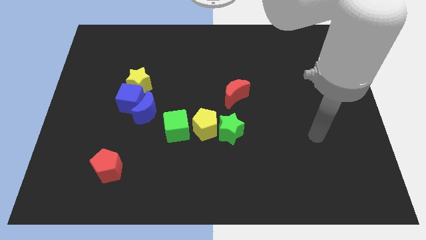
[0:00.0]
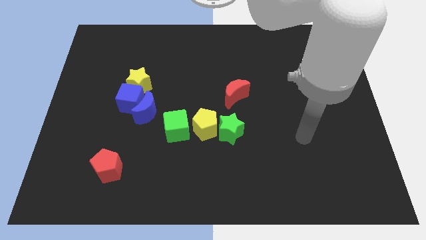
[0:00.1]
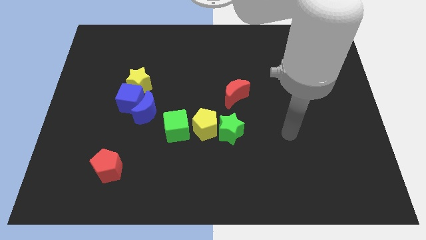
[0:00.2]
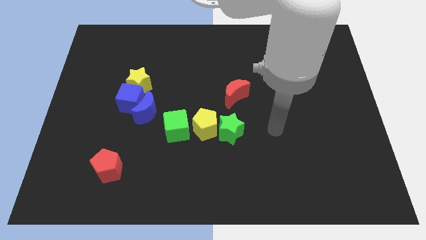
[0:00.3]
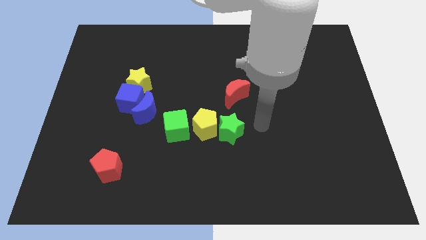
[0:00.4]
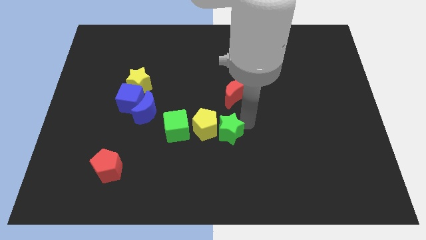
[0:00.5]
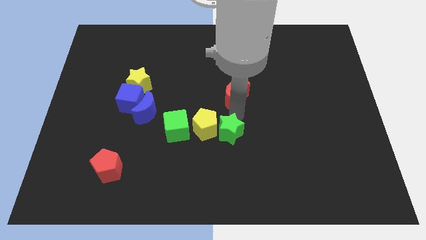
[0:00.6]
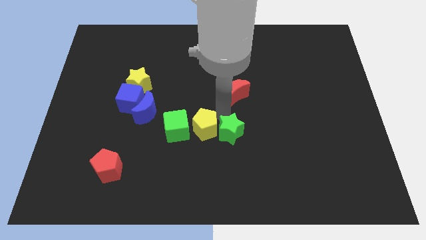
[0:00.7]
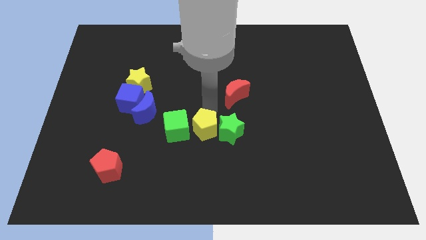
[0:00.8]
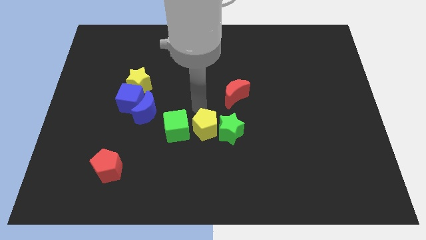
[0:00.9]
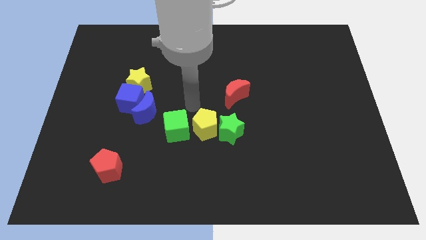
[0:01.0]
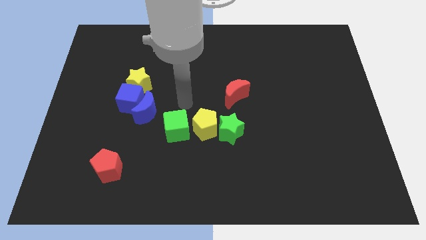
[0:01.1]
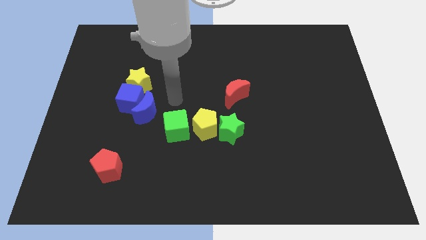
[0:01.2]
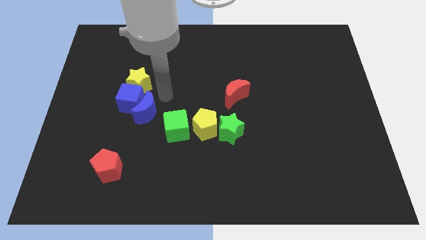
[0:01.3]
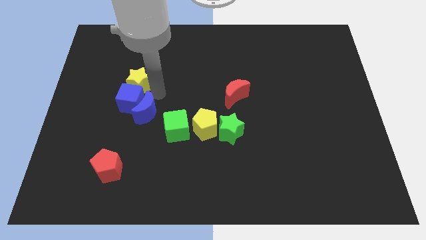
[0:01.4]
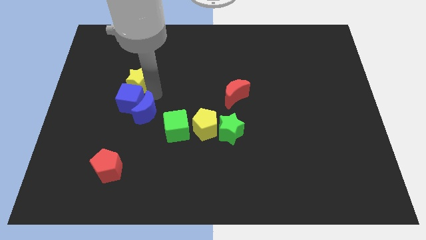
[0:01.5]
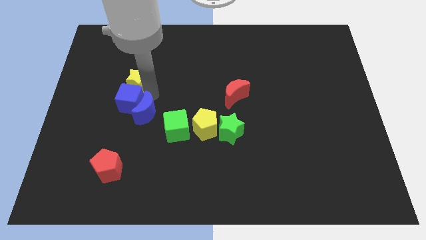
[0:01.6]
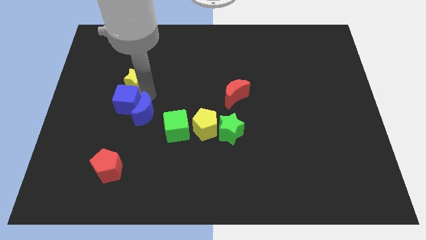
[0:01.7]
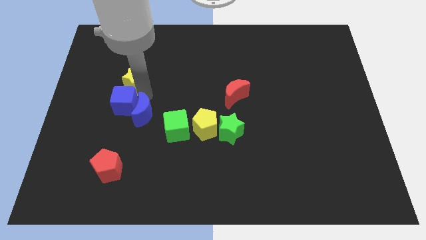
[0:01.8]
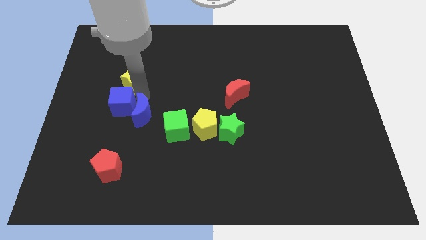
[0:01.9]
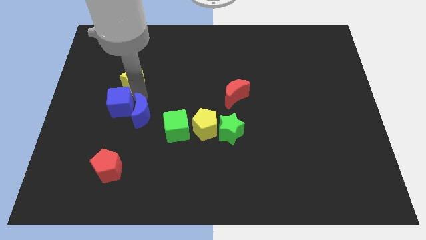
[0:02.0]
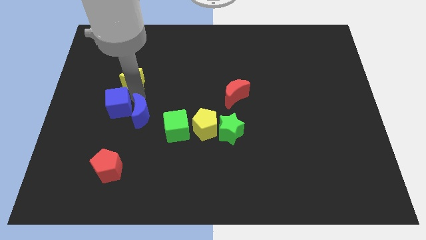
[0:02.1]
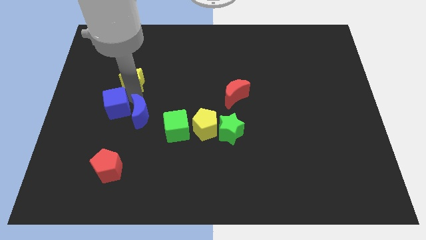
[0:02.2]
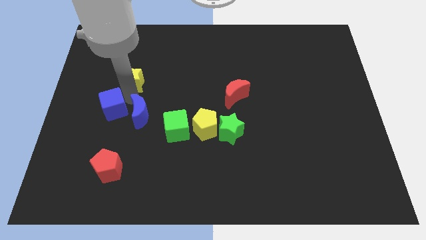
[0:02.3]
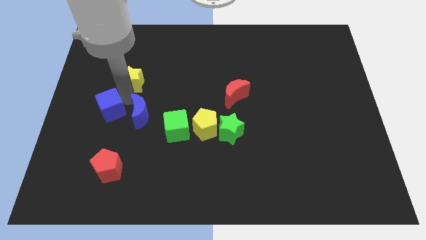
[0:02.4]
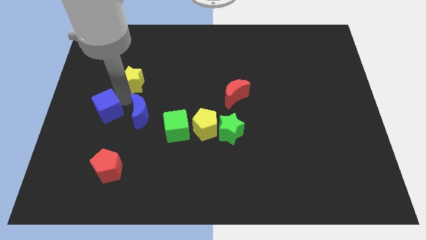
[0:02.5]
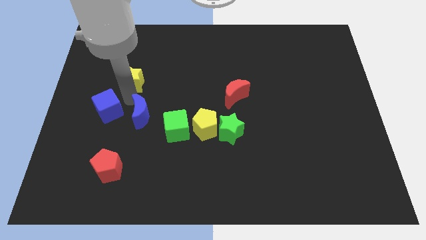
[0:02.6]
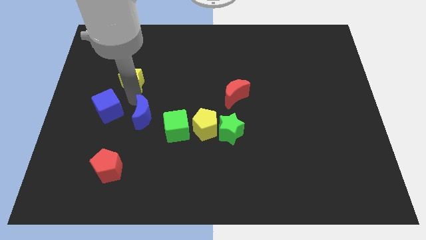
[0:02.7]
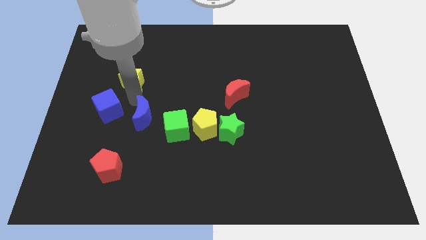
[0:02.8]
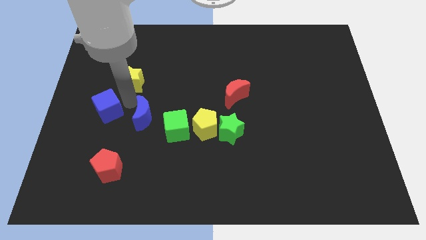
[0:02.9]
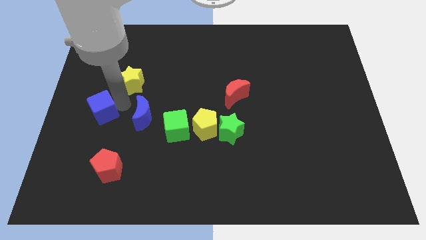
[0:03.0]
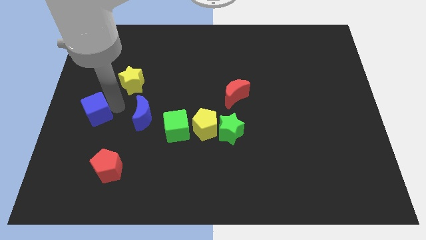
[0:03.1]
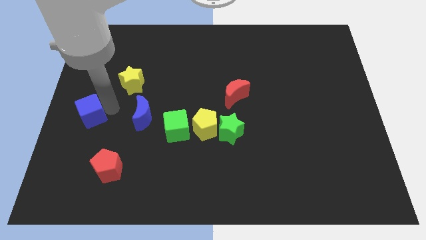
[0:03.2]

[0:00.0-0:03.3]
separate the blue cube from the blue moon and yellow star

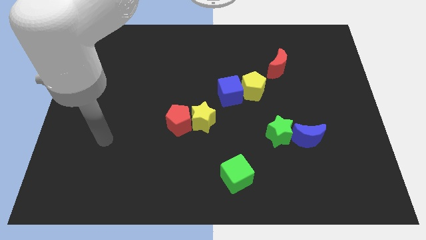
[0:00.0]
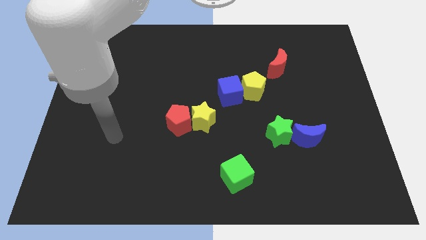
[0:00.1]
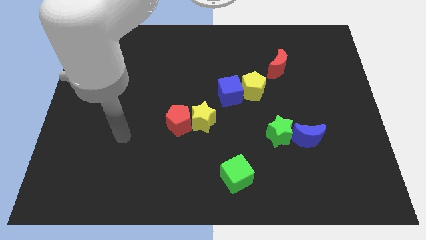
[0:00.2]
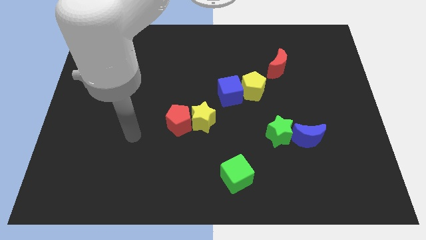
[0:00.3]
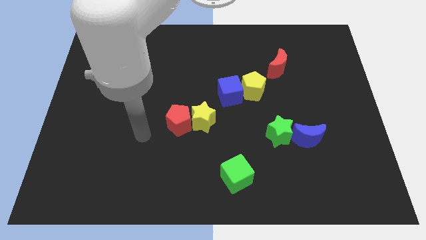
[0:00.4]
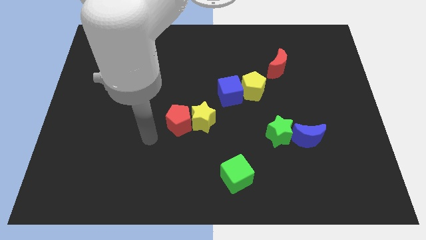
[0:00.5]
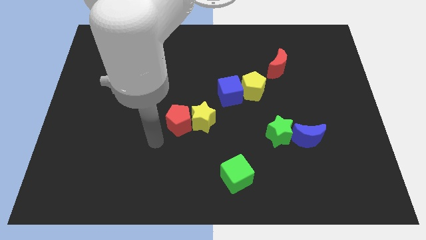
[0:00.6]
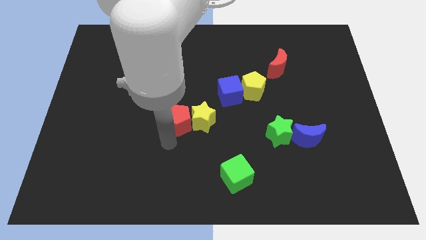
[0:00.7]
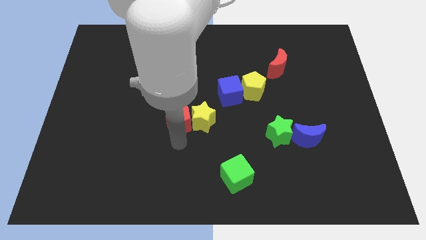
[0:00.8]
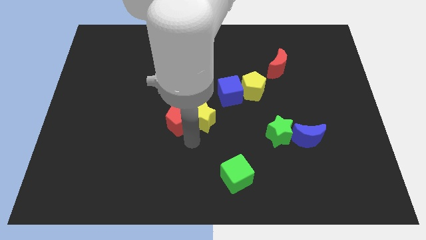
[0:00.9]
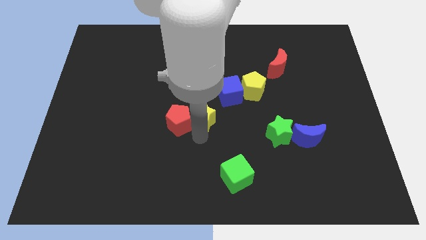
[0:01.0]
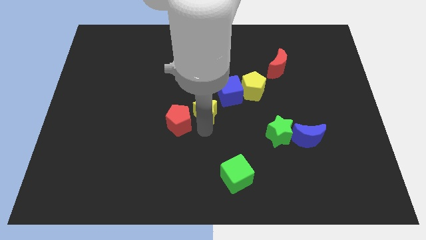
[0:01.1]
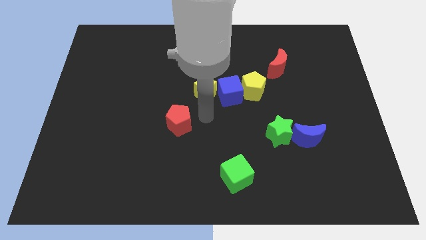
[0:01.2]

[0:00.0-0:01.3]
pull the red pentagon apart from the yellow star

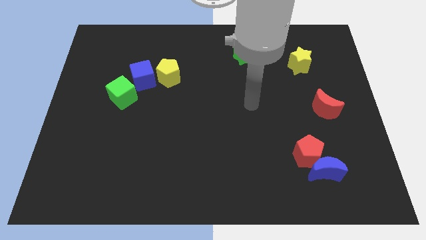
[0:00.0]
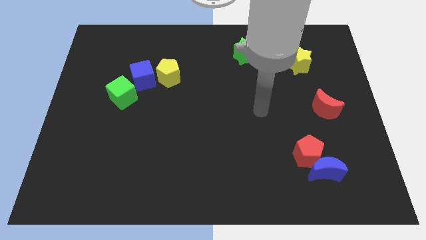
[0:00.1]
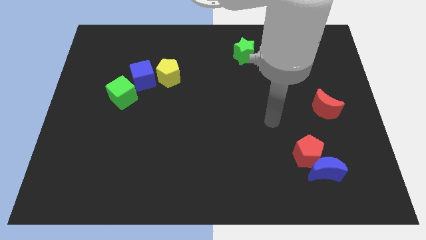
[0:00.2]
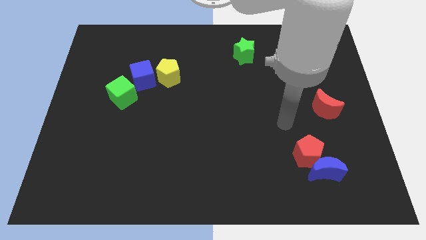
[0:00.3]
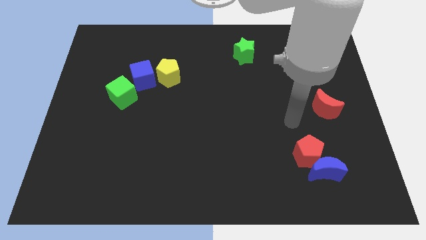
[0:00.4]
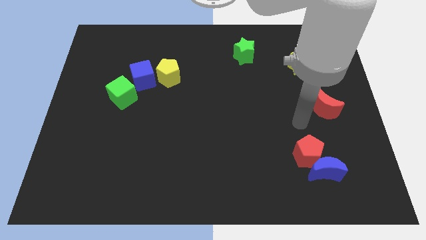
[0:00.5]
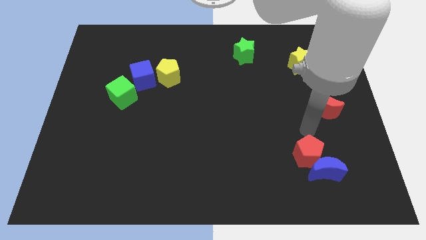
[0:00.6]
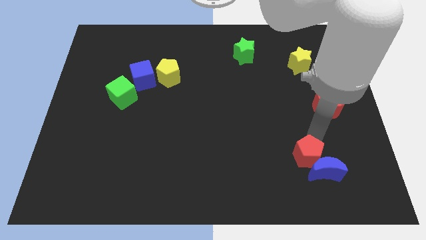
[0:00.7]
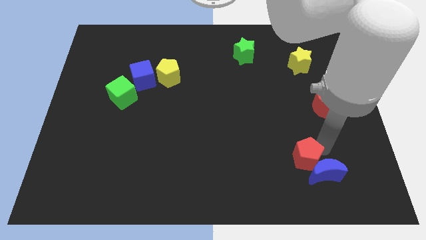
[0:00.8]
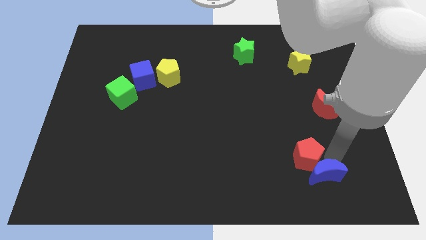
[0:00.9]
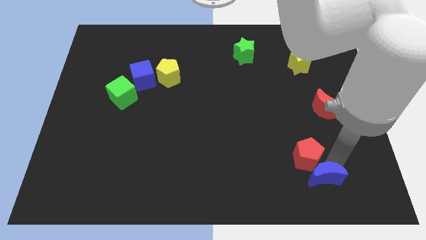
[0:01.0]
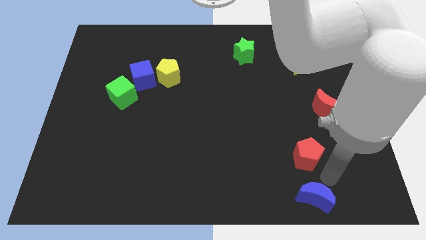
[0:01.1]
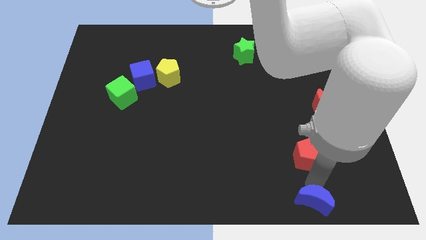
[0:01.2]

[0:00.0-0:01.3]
move the red pentagon away from the blue moon

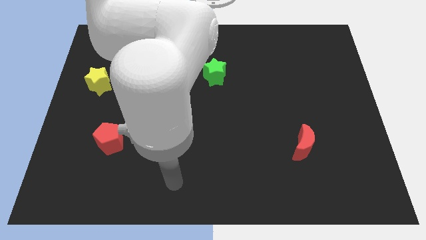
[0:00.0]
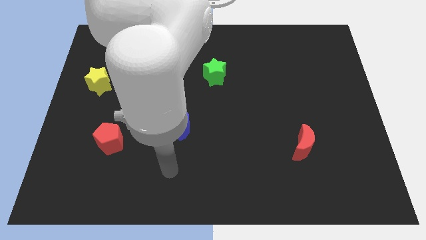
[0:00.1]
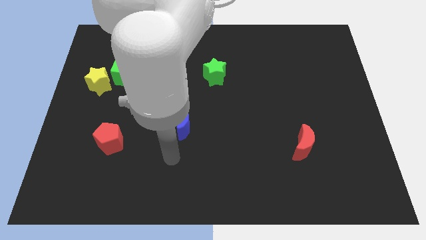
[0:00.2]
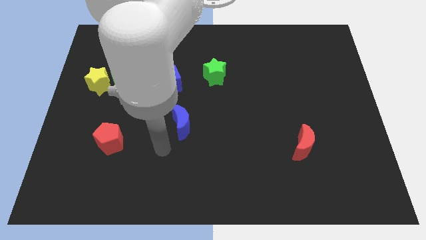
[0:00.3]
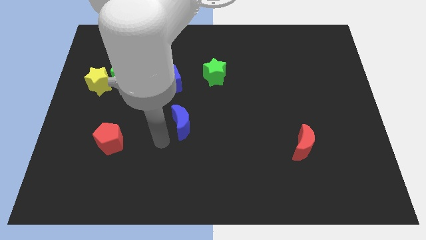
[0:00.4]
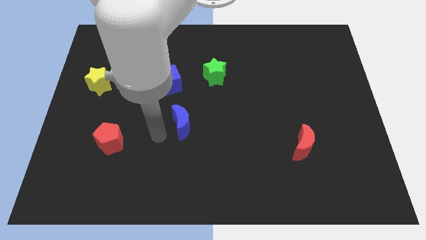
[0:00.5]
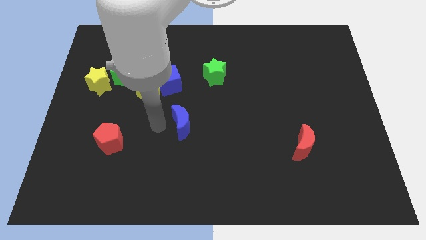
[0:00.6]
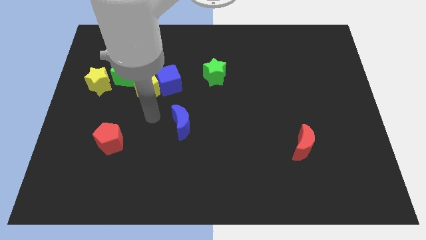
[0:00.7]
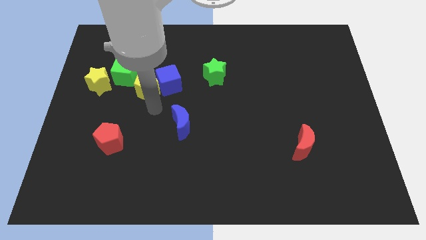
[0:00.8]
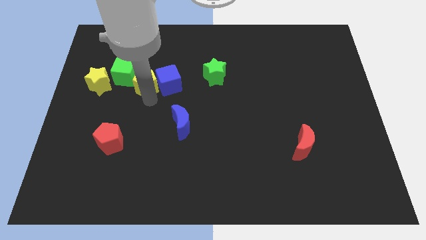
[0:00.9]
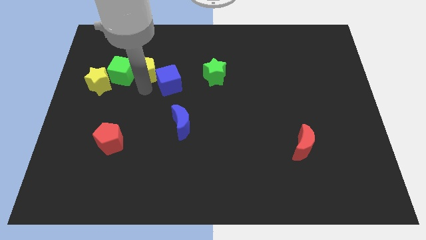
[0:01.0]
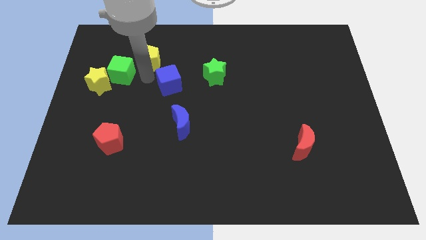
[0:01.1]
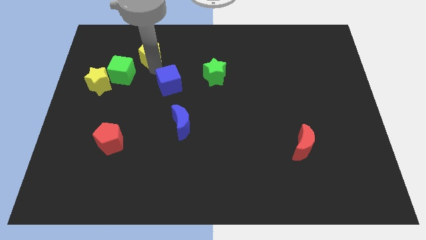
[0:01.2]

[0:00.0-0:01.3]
move the blue cube away from the yellow pentagon

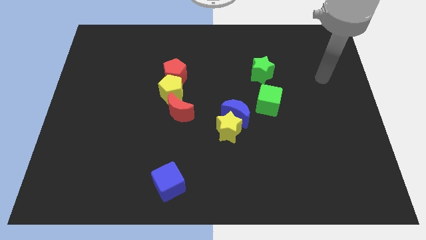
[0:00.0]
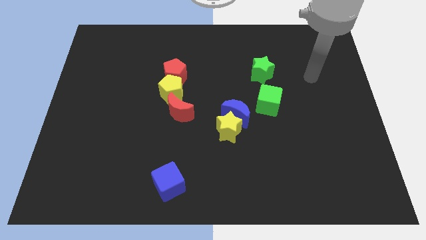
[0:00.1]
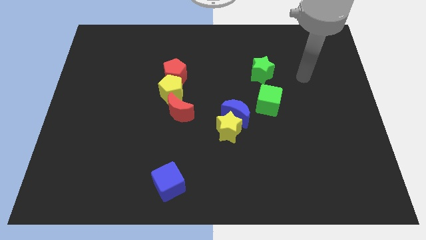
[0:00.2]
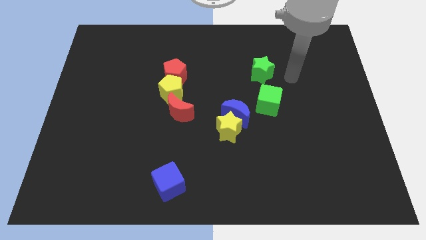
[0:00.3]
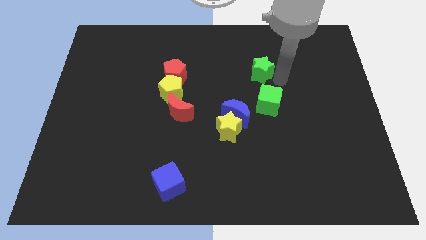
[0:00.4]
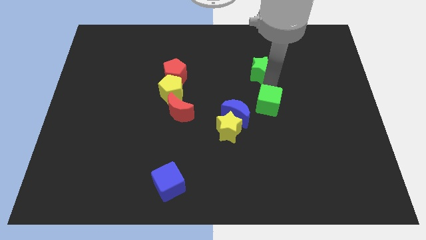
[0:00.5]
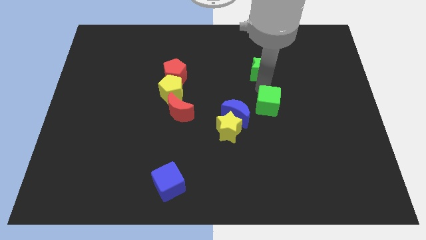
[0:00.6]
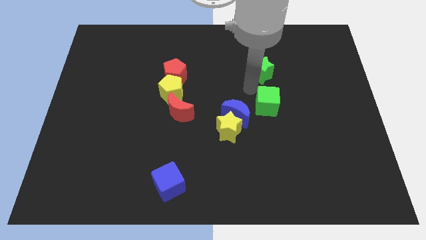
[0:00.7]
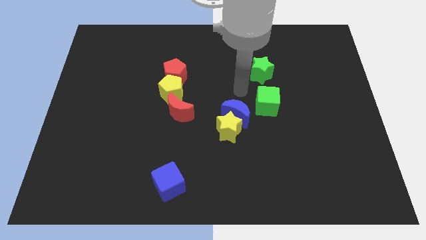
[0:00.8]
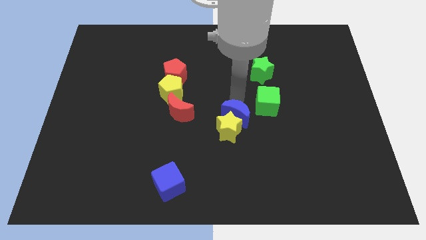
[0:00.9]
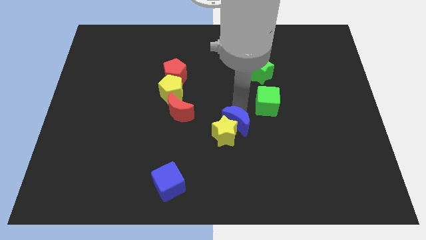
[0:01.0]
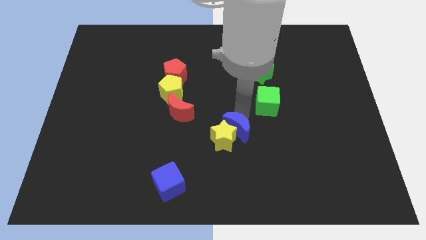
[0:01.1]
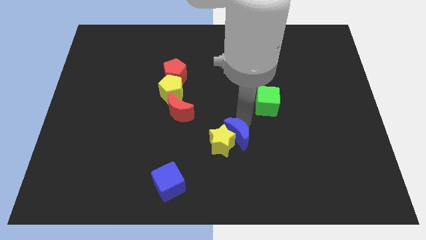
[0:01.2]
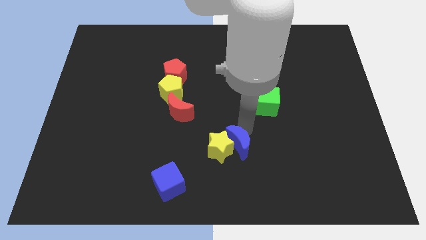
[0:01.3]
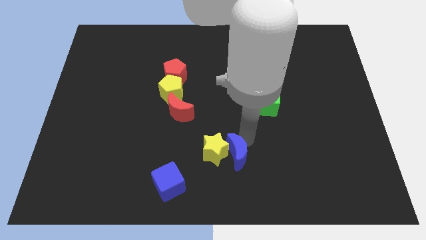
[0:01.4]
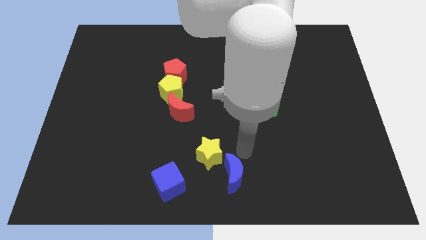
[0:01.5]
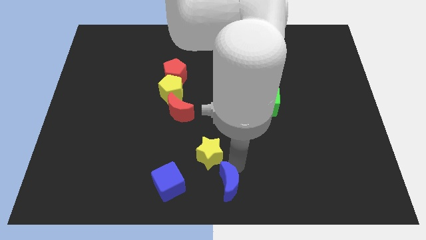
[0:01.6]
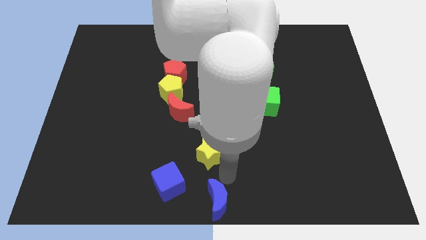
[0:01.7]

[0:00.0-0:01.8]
pull the yellow star apart from the blue moon

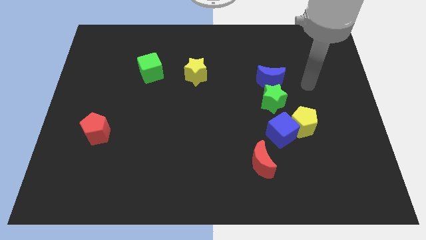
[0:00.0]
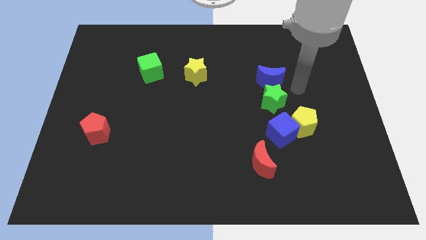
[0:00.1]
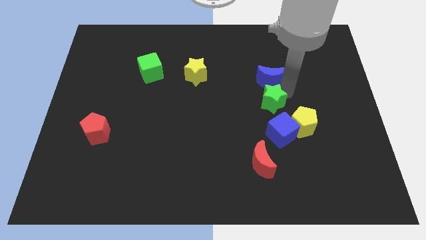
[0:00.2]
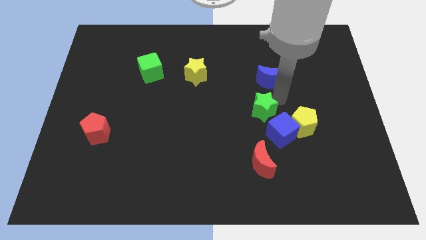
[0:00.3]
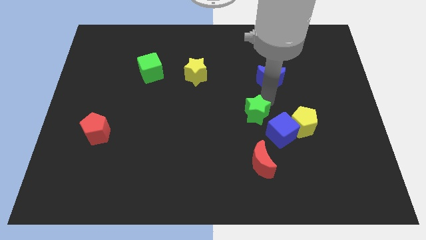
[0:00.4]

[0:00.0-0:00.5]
move the blue moon away from the green star
